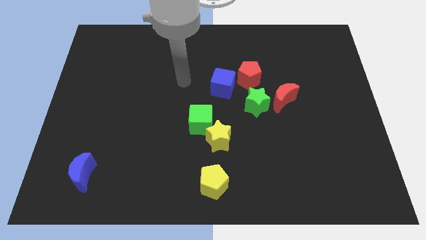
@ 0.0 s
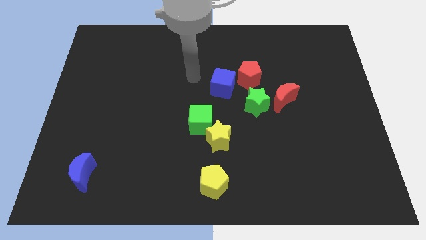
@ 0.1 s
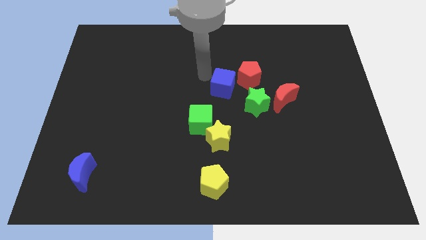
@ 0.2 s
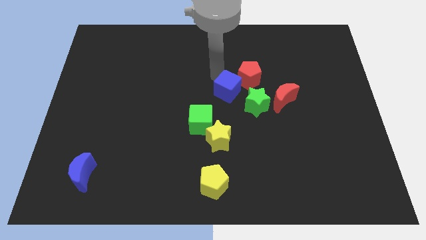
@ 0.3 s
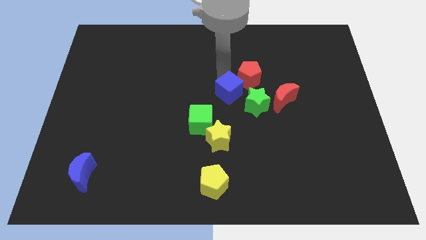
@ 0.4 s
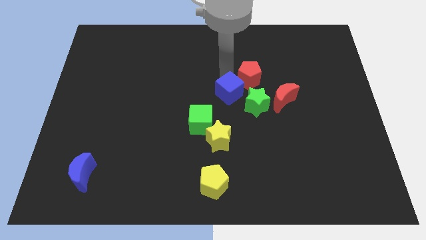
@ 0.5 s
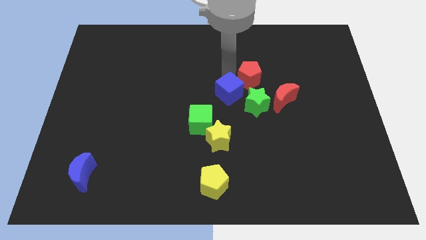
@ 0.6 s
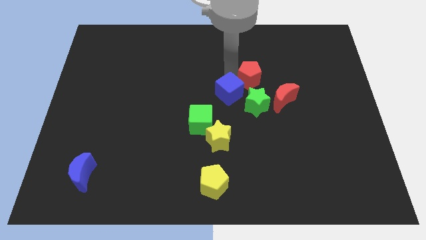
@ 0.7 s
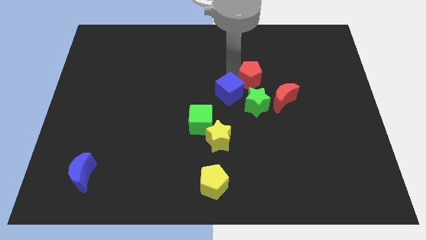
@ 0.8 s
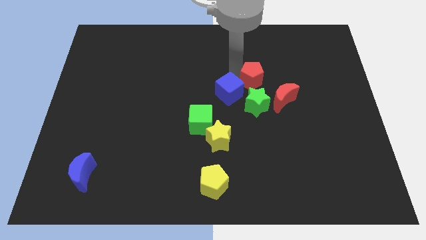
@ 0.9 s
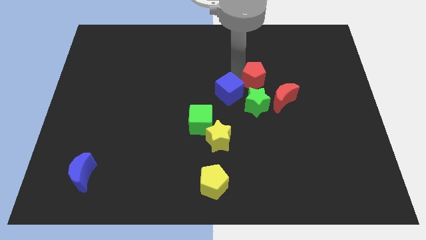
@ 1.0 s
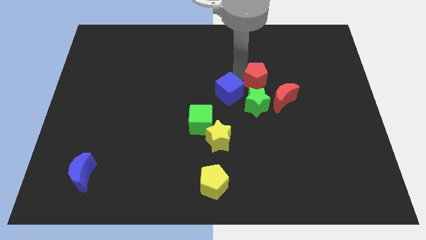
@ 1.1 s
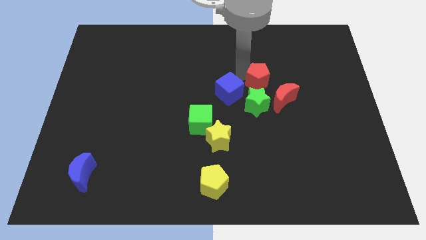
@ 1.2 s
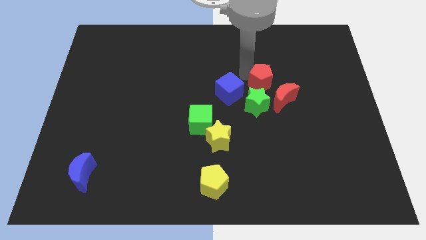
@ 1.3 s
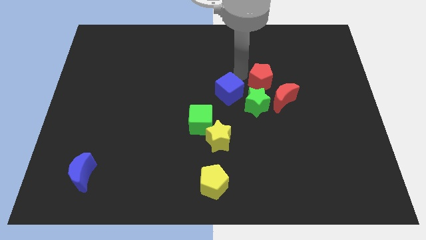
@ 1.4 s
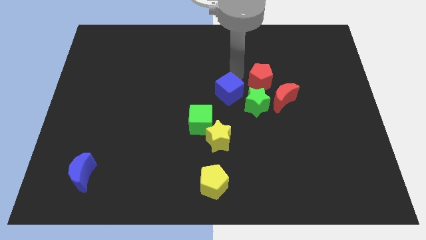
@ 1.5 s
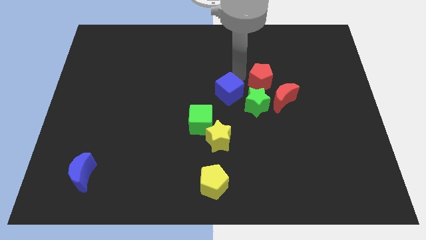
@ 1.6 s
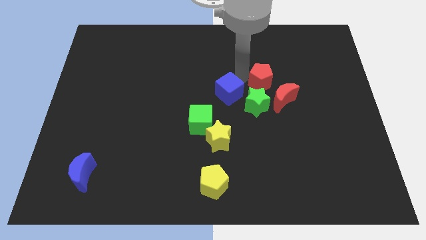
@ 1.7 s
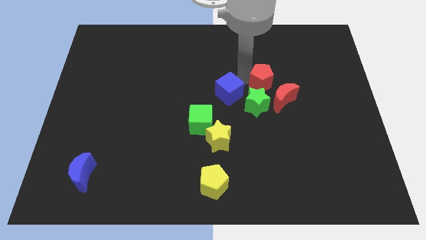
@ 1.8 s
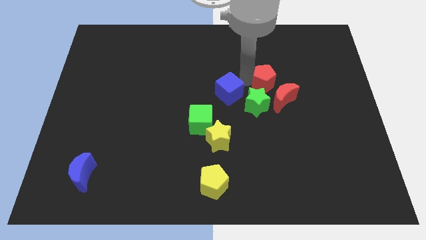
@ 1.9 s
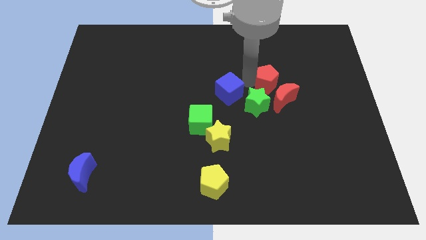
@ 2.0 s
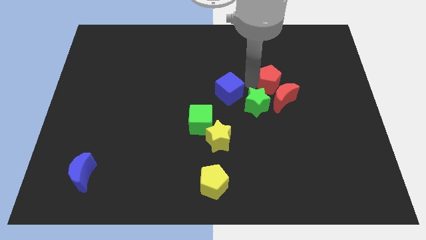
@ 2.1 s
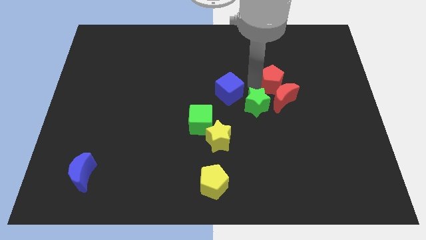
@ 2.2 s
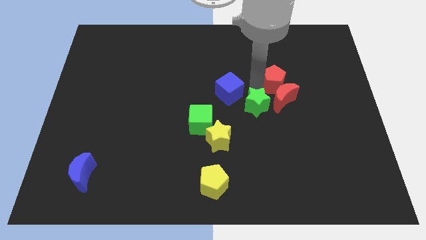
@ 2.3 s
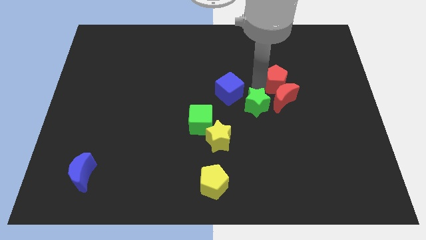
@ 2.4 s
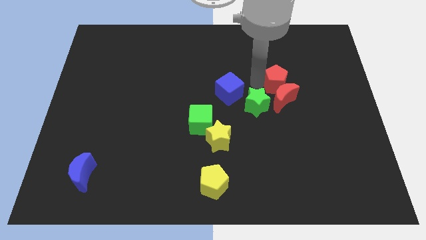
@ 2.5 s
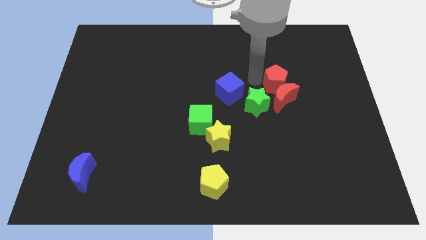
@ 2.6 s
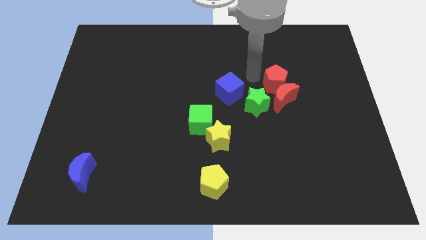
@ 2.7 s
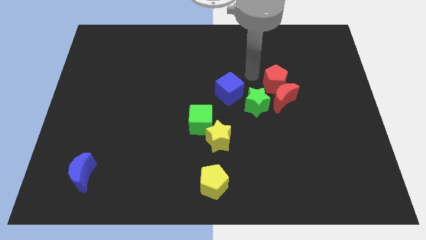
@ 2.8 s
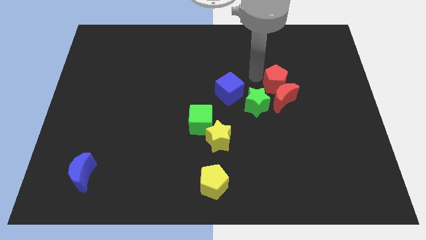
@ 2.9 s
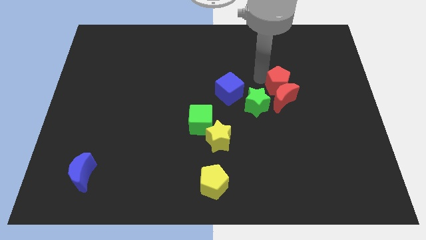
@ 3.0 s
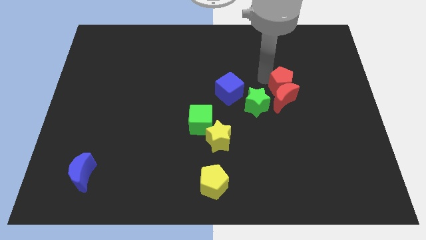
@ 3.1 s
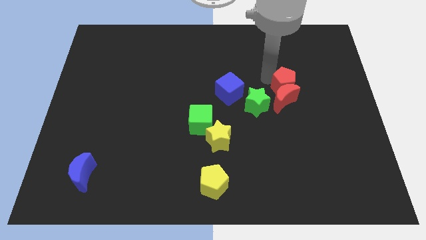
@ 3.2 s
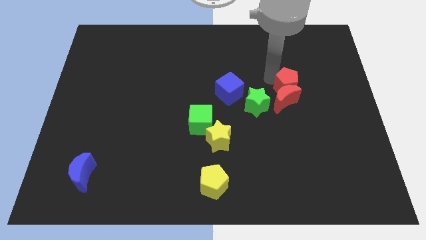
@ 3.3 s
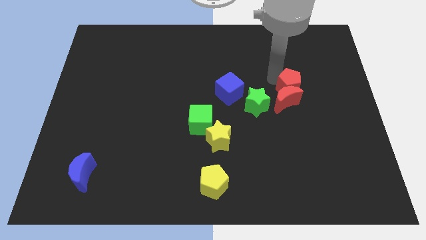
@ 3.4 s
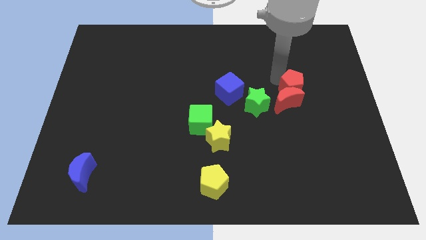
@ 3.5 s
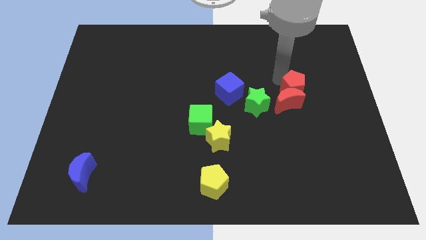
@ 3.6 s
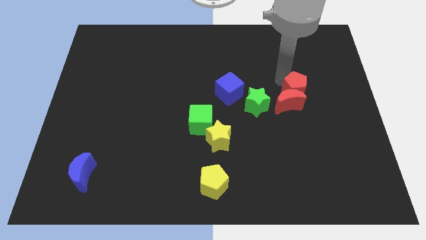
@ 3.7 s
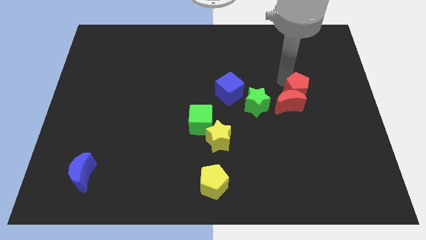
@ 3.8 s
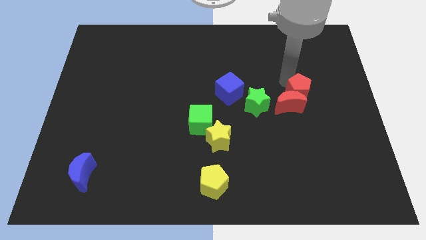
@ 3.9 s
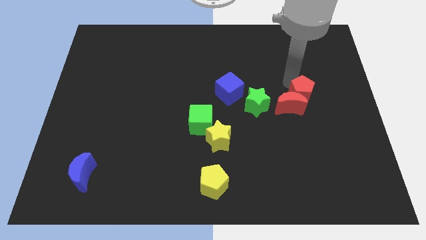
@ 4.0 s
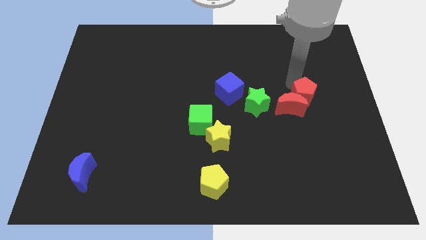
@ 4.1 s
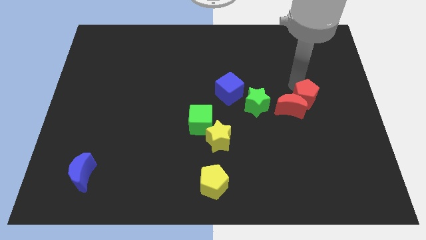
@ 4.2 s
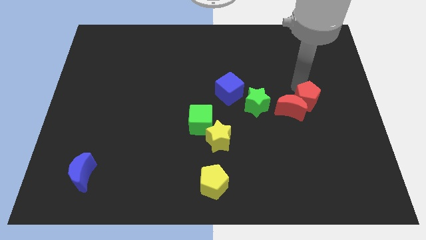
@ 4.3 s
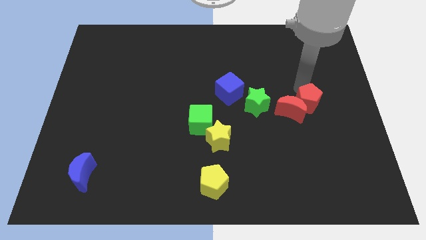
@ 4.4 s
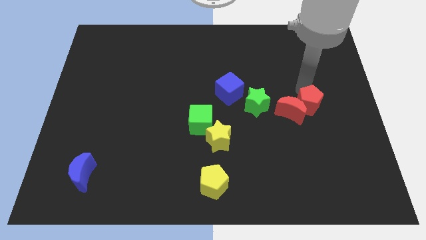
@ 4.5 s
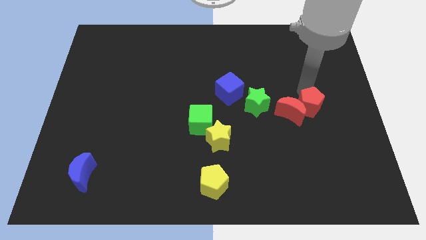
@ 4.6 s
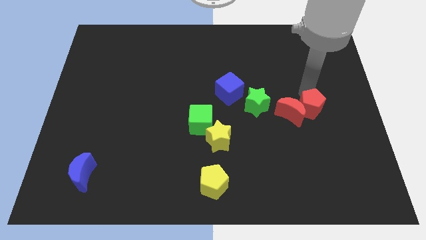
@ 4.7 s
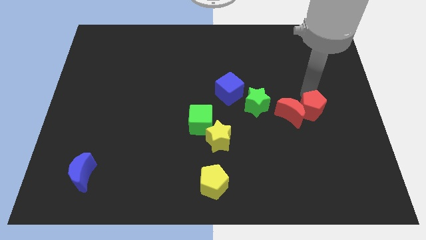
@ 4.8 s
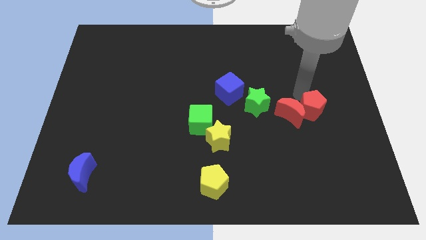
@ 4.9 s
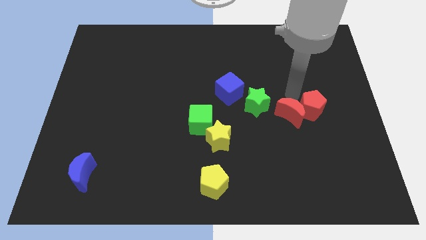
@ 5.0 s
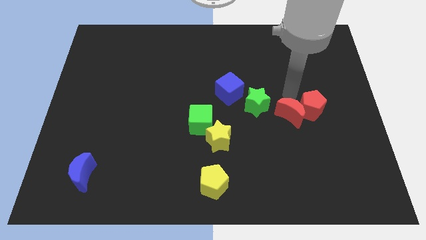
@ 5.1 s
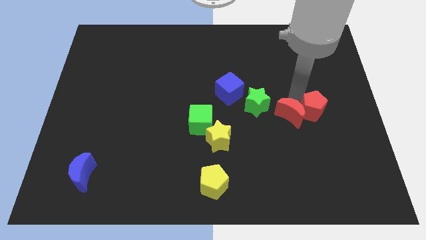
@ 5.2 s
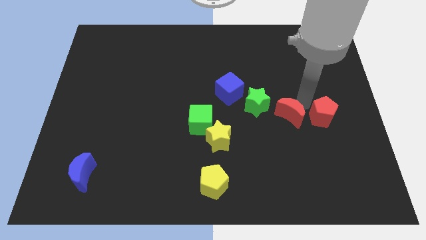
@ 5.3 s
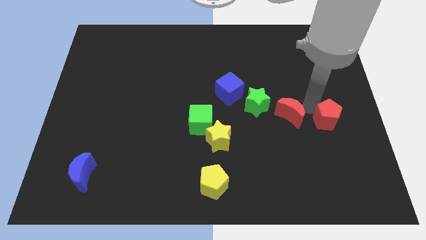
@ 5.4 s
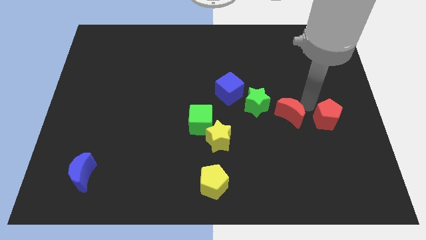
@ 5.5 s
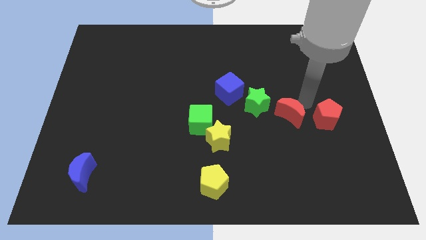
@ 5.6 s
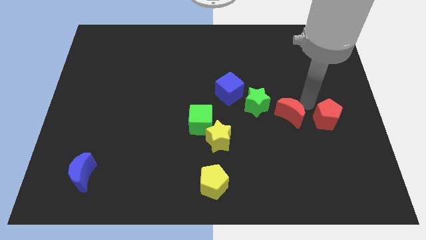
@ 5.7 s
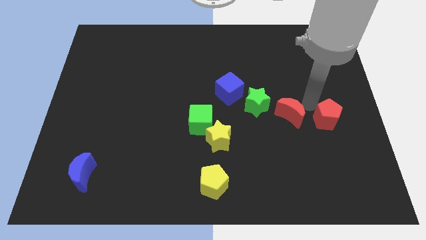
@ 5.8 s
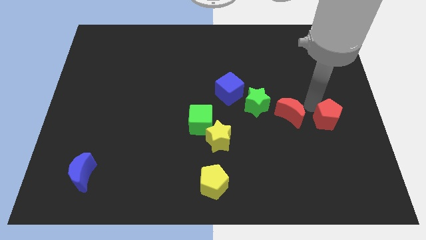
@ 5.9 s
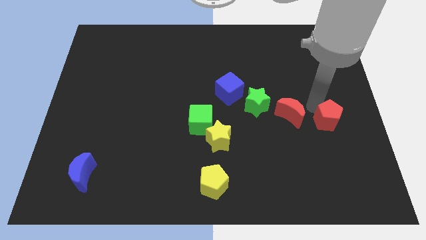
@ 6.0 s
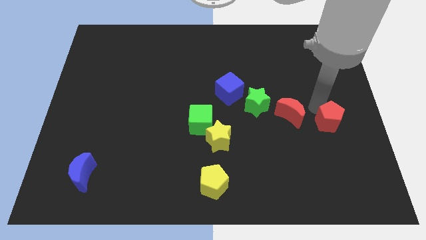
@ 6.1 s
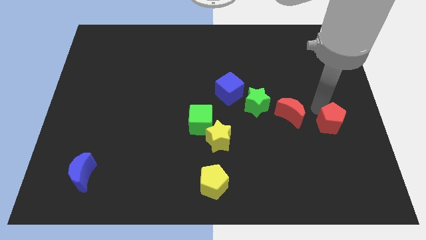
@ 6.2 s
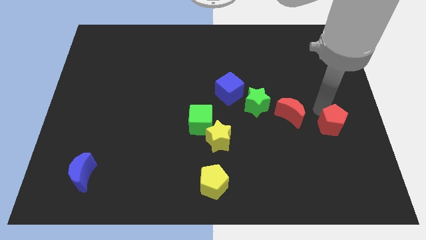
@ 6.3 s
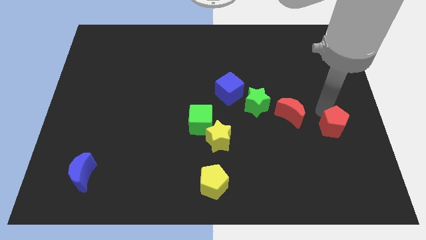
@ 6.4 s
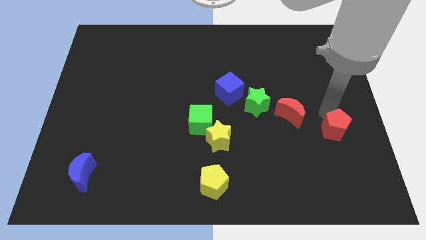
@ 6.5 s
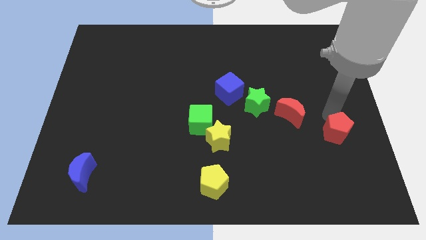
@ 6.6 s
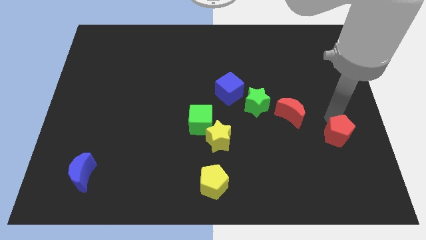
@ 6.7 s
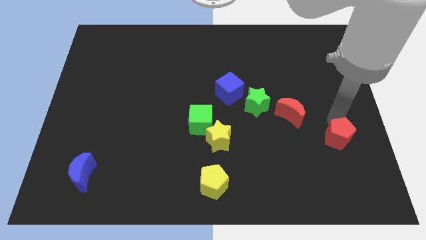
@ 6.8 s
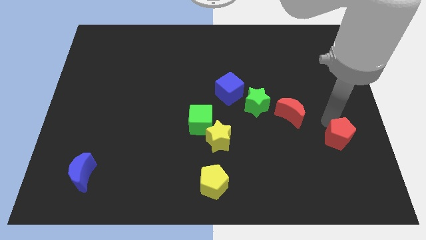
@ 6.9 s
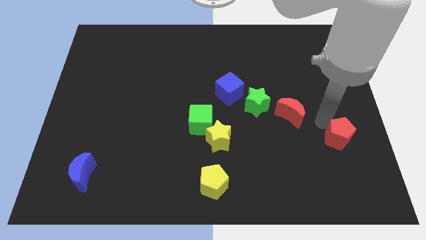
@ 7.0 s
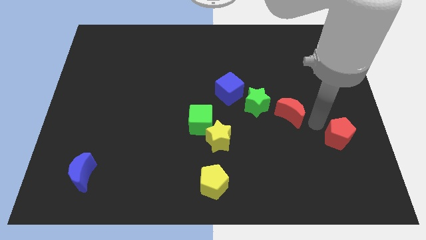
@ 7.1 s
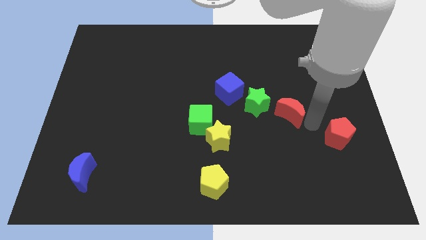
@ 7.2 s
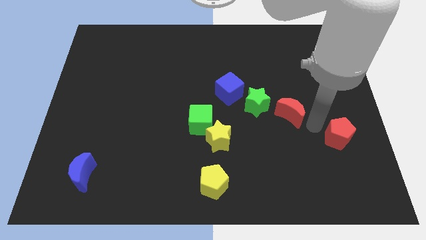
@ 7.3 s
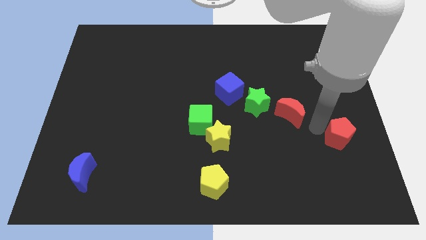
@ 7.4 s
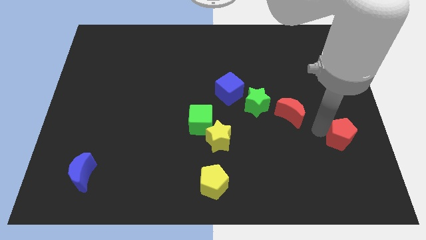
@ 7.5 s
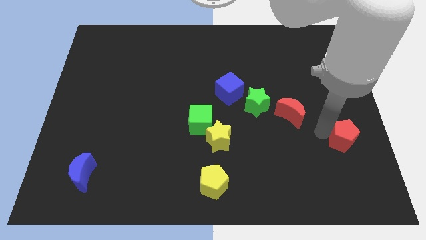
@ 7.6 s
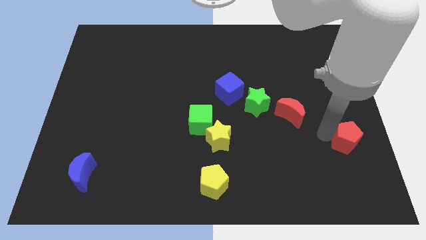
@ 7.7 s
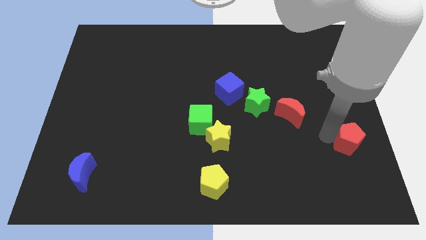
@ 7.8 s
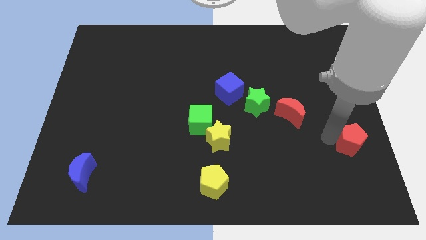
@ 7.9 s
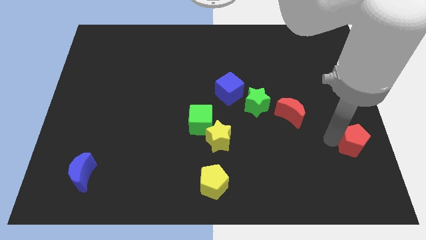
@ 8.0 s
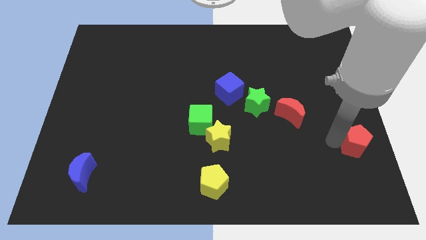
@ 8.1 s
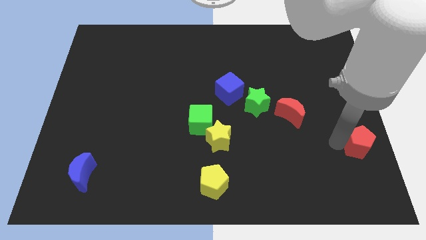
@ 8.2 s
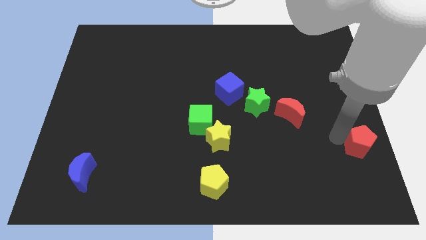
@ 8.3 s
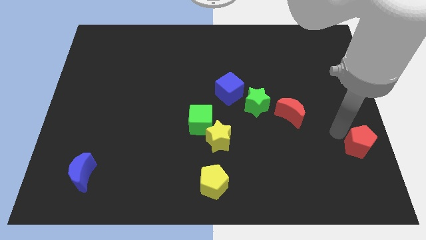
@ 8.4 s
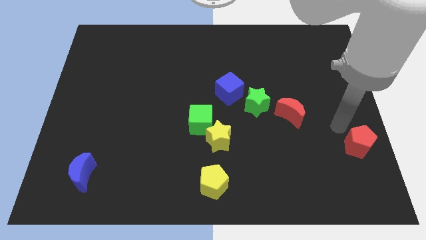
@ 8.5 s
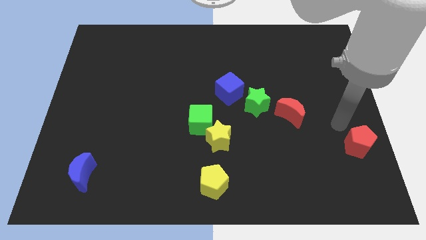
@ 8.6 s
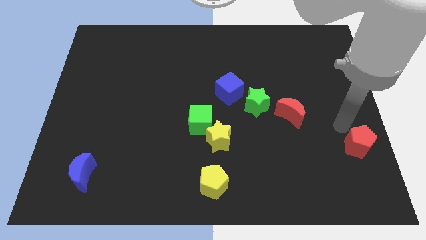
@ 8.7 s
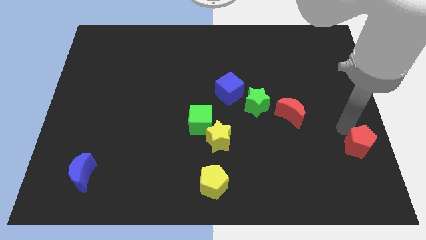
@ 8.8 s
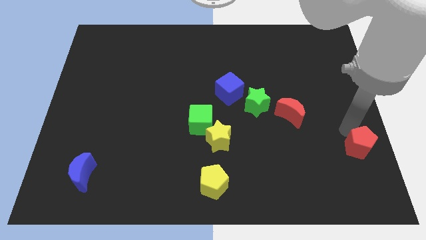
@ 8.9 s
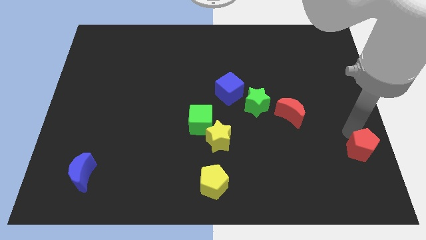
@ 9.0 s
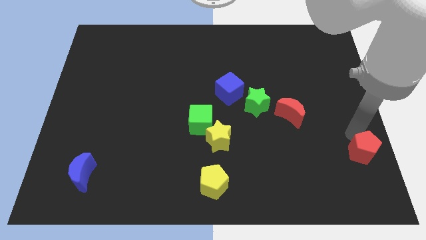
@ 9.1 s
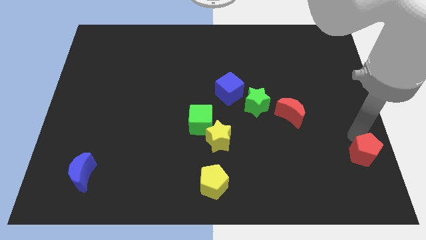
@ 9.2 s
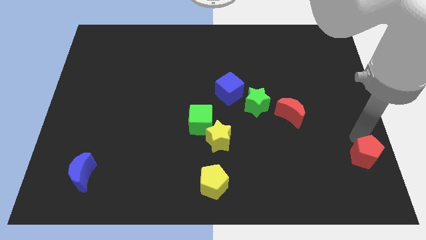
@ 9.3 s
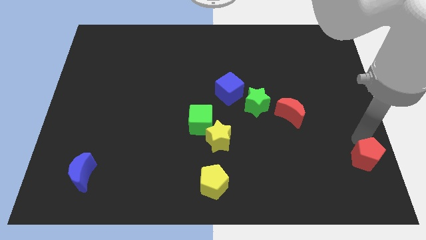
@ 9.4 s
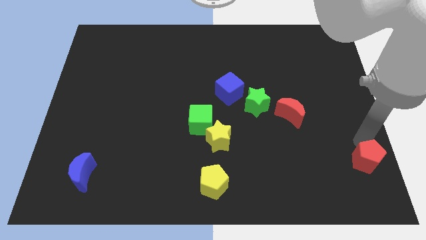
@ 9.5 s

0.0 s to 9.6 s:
slide the red pentagon to the bottom right
